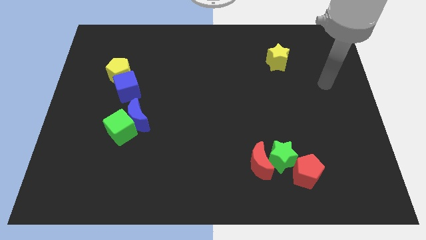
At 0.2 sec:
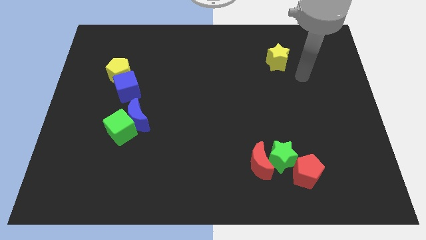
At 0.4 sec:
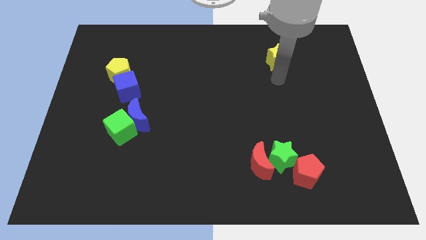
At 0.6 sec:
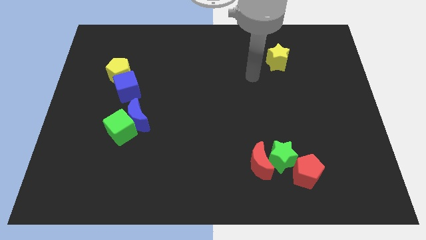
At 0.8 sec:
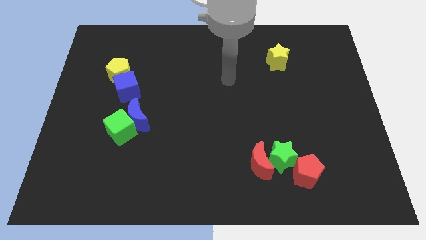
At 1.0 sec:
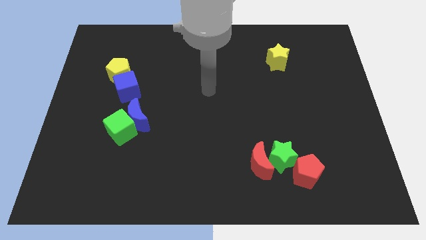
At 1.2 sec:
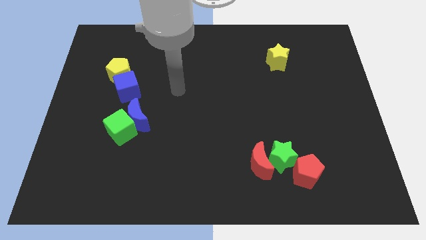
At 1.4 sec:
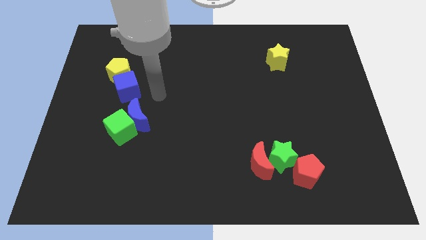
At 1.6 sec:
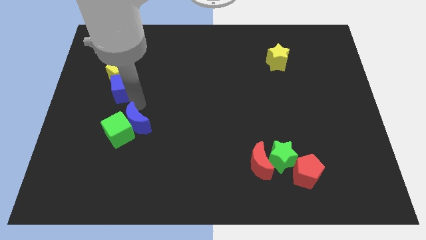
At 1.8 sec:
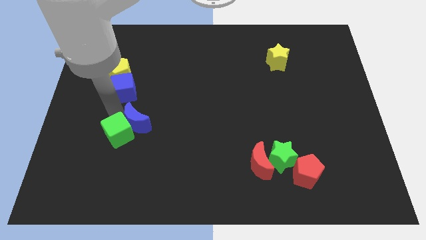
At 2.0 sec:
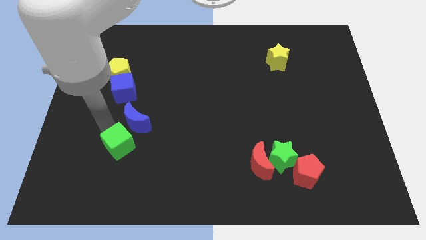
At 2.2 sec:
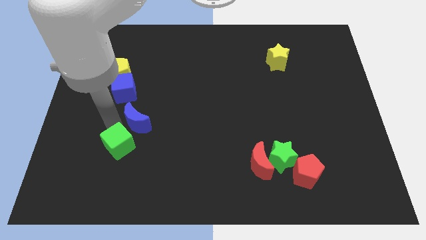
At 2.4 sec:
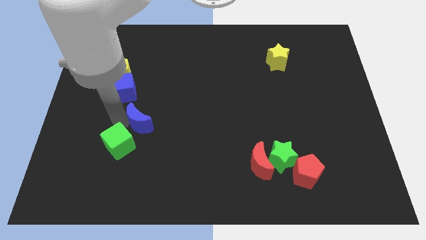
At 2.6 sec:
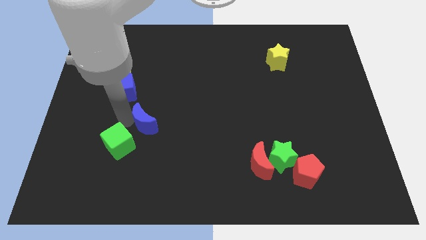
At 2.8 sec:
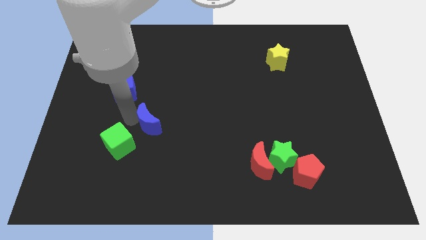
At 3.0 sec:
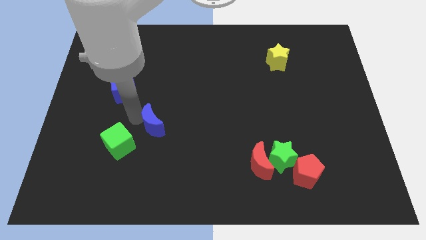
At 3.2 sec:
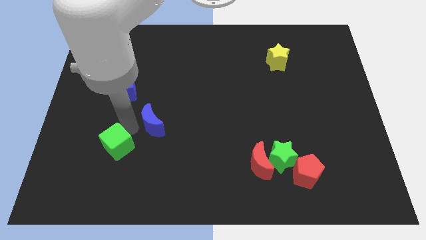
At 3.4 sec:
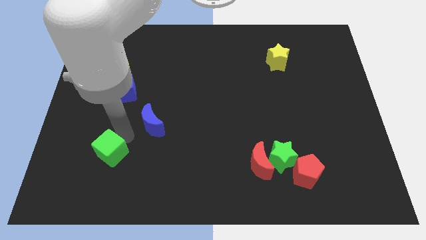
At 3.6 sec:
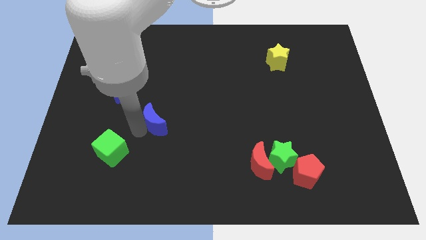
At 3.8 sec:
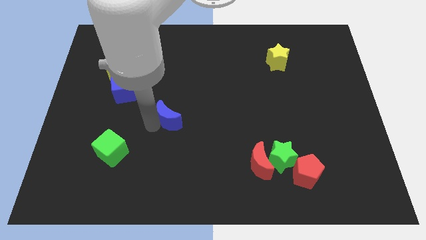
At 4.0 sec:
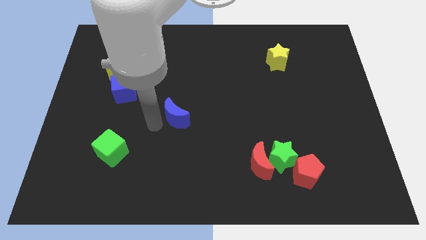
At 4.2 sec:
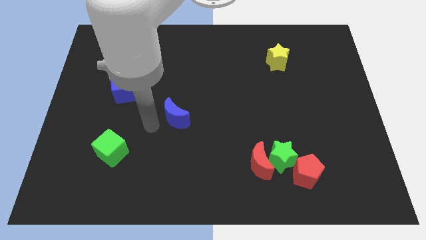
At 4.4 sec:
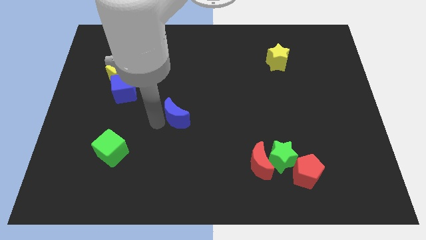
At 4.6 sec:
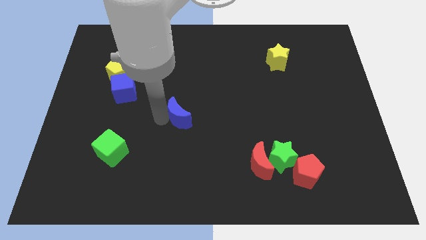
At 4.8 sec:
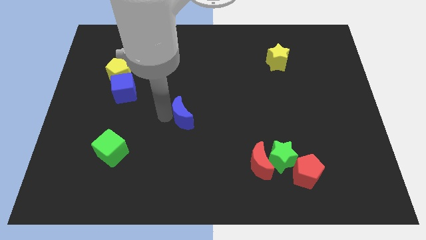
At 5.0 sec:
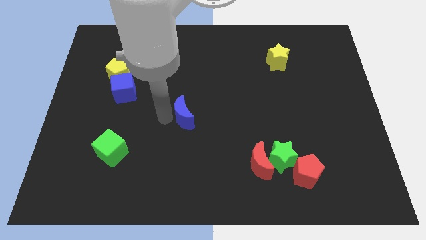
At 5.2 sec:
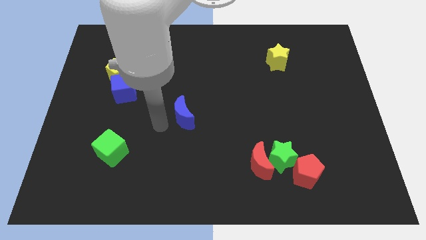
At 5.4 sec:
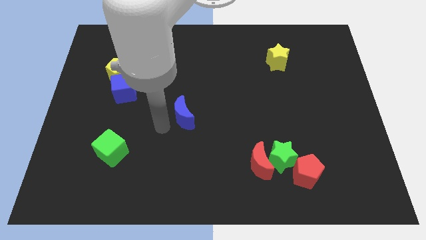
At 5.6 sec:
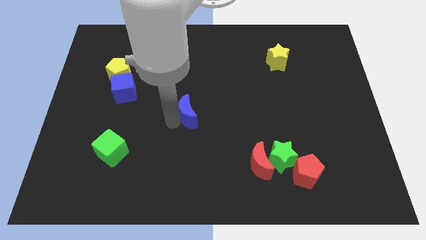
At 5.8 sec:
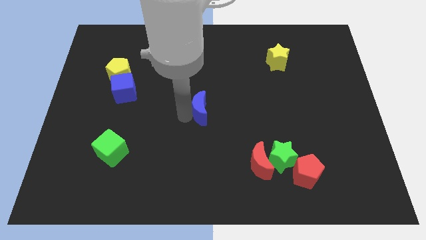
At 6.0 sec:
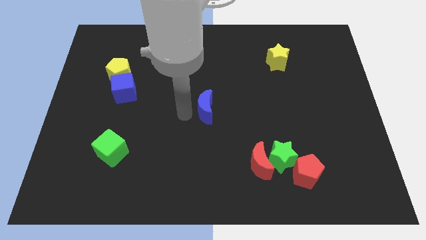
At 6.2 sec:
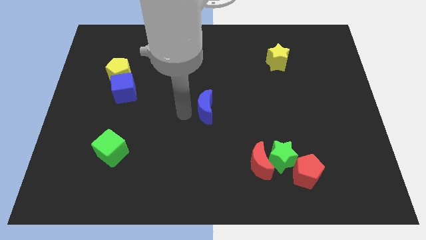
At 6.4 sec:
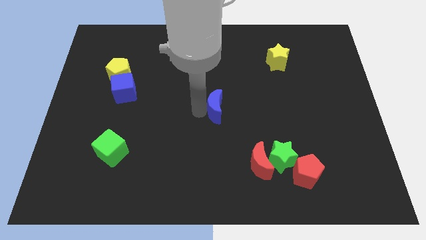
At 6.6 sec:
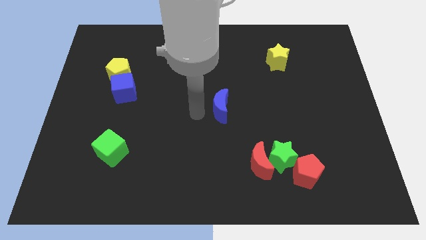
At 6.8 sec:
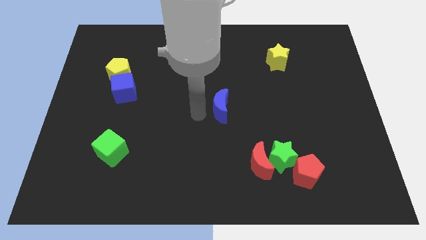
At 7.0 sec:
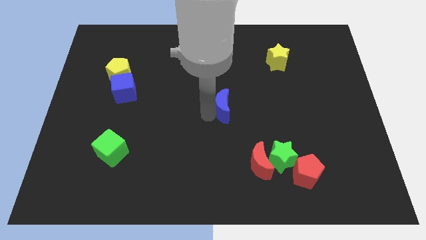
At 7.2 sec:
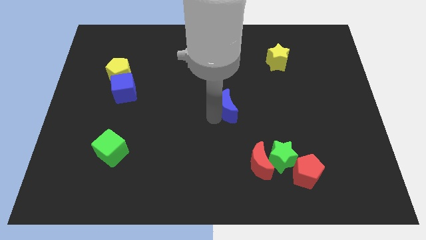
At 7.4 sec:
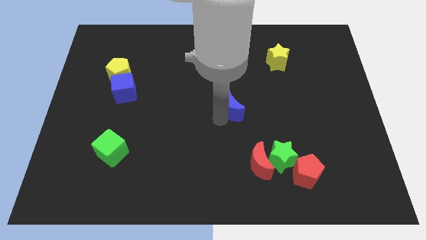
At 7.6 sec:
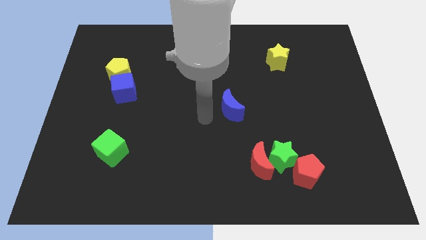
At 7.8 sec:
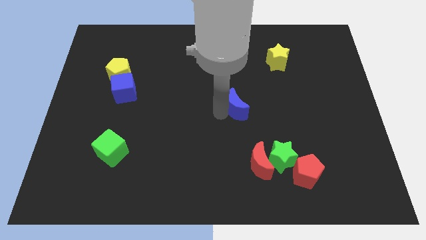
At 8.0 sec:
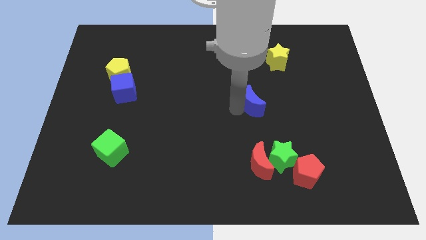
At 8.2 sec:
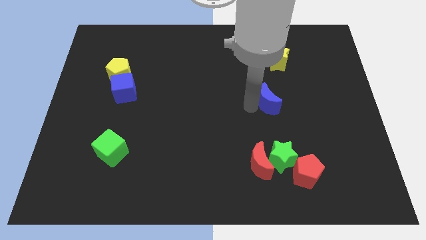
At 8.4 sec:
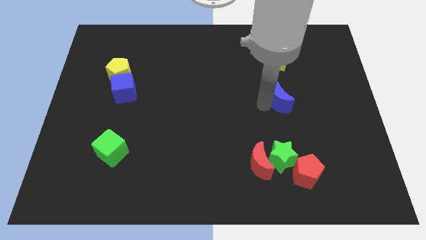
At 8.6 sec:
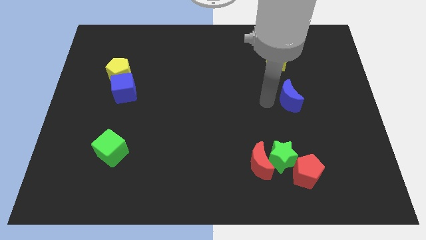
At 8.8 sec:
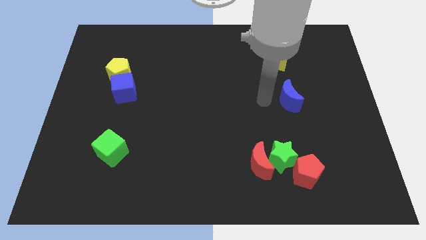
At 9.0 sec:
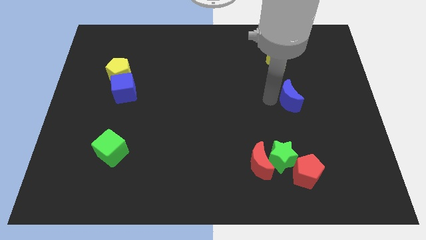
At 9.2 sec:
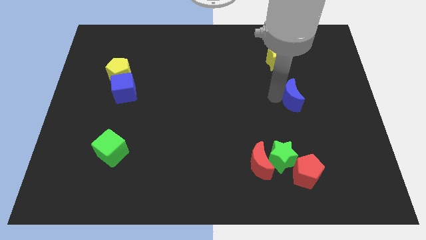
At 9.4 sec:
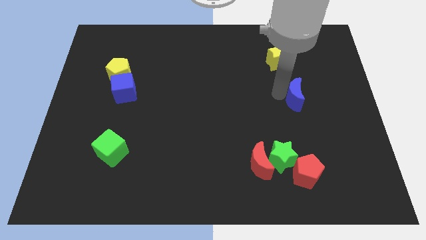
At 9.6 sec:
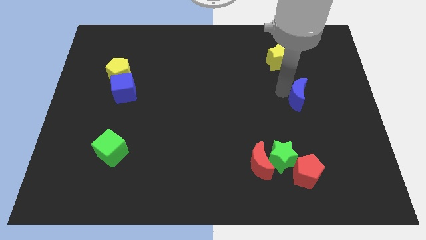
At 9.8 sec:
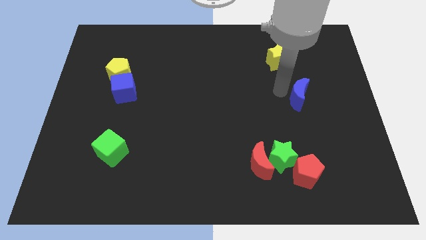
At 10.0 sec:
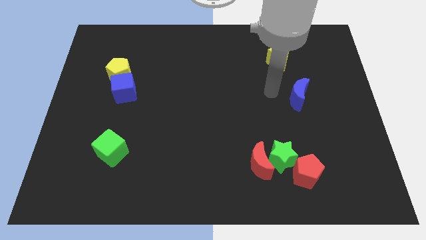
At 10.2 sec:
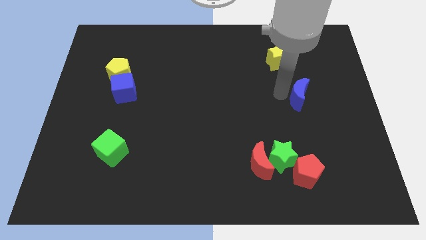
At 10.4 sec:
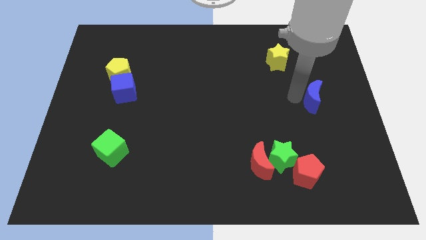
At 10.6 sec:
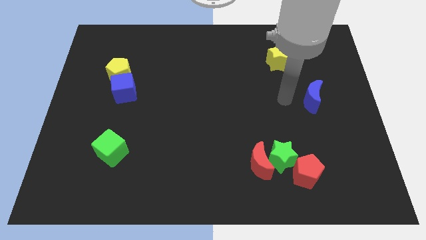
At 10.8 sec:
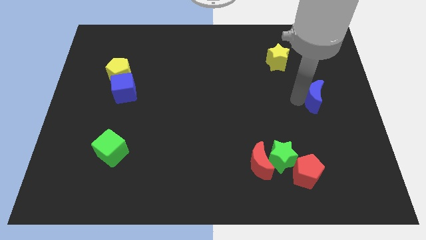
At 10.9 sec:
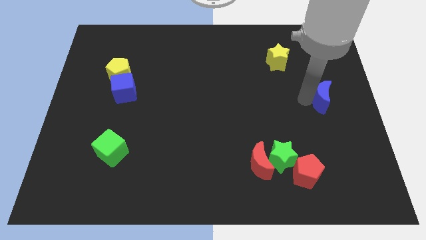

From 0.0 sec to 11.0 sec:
push the blue moon to the center right

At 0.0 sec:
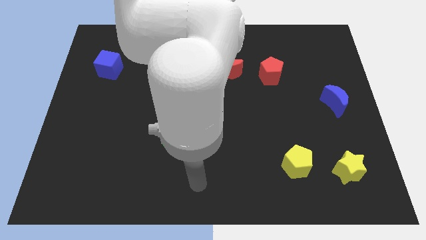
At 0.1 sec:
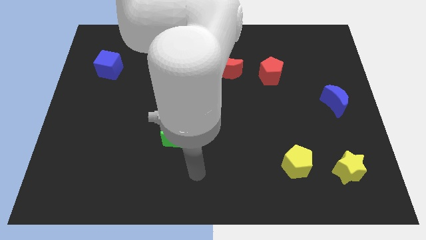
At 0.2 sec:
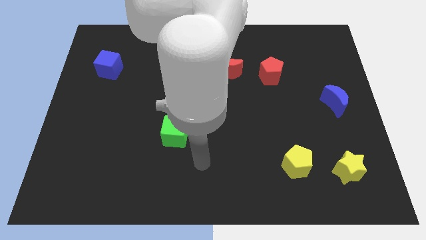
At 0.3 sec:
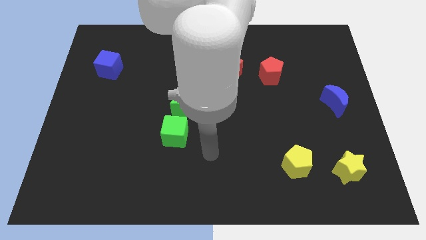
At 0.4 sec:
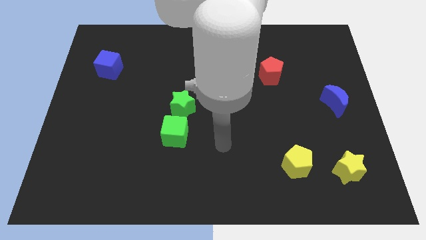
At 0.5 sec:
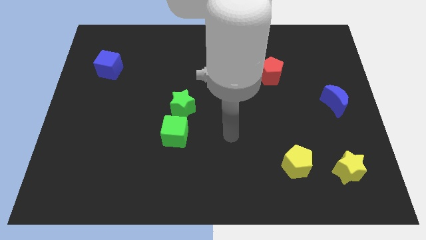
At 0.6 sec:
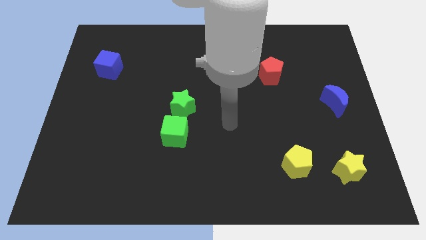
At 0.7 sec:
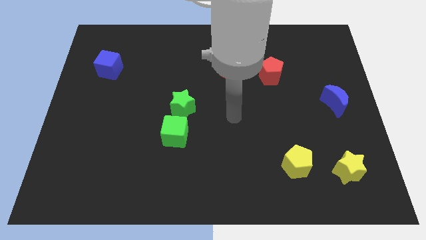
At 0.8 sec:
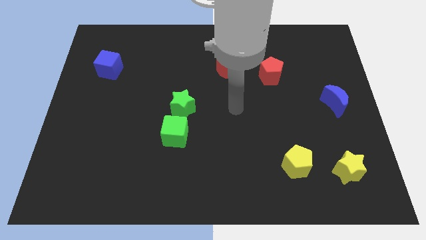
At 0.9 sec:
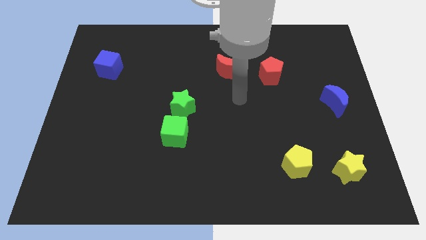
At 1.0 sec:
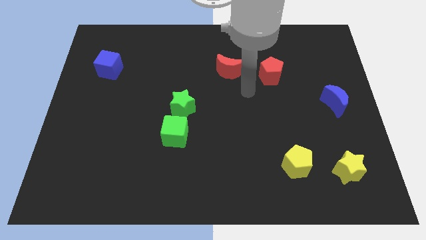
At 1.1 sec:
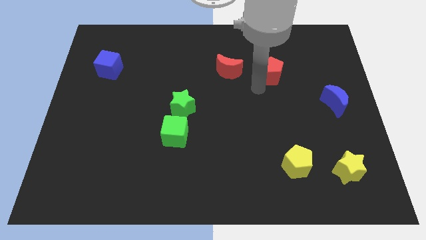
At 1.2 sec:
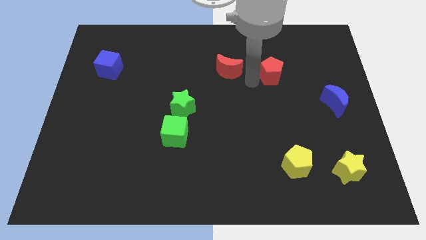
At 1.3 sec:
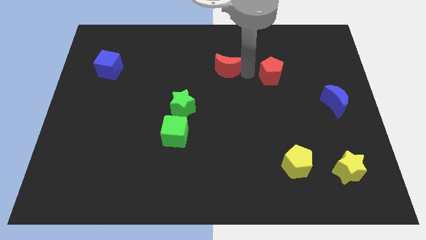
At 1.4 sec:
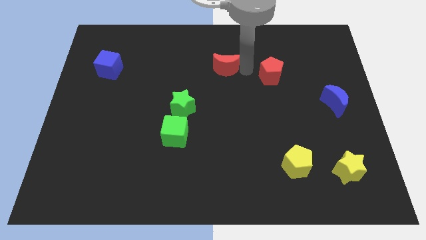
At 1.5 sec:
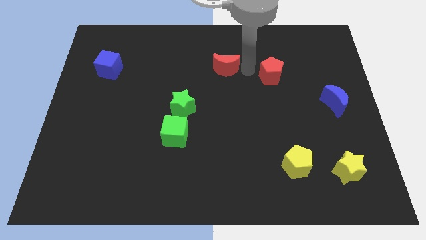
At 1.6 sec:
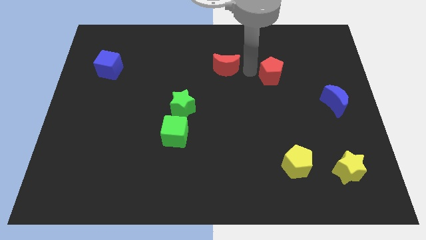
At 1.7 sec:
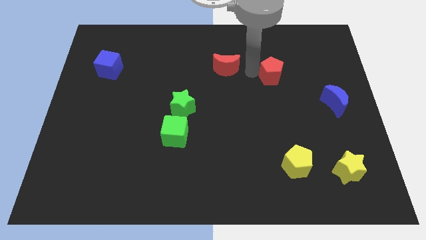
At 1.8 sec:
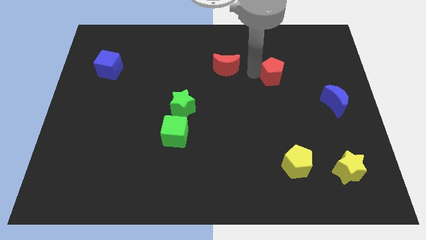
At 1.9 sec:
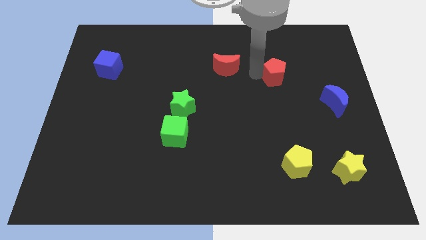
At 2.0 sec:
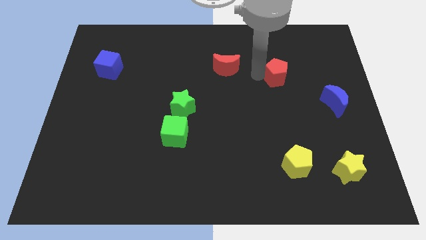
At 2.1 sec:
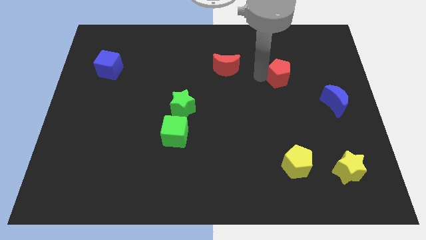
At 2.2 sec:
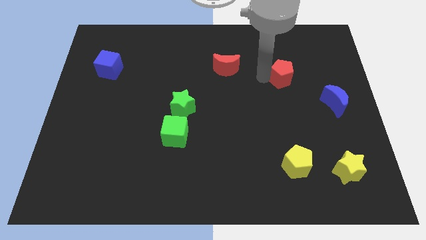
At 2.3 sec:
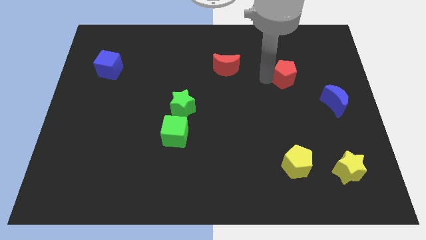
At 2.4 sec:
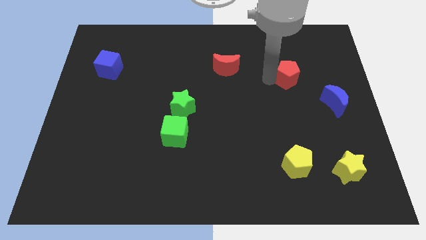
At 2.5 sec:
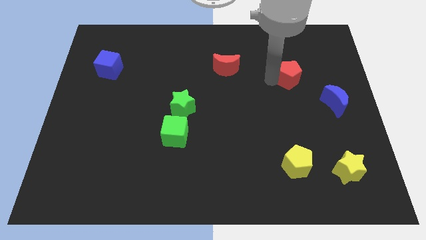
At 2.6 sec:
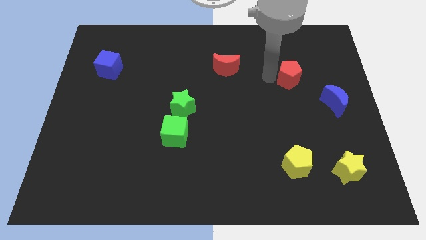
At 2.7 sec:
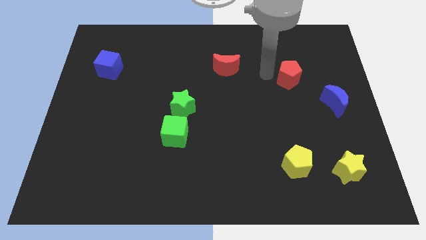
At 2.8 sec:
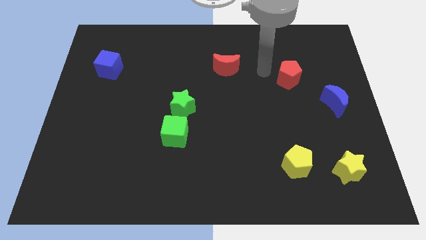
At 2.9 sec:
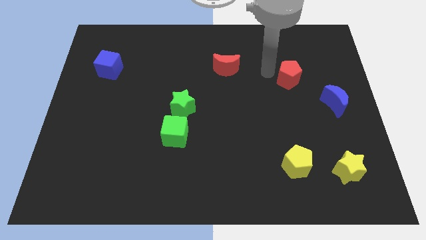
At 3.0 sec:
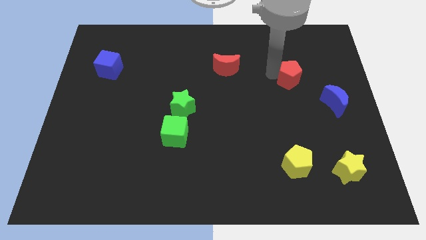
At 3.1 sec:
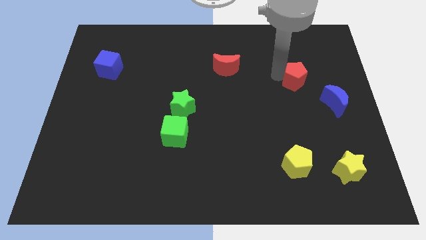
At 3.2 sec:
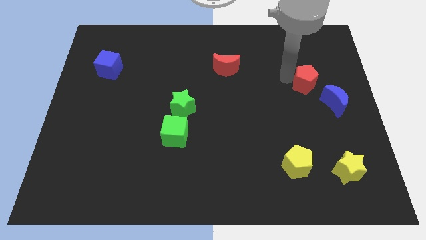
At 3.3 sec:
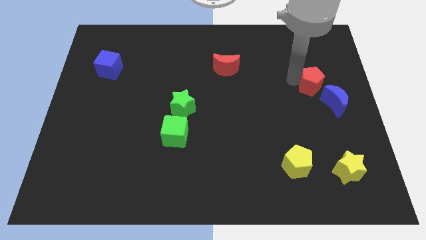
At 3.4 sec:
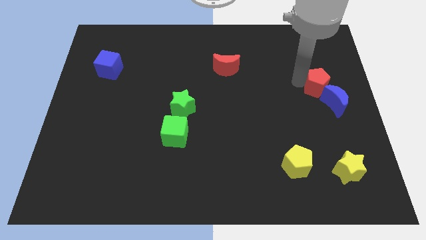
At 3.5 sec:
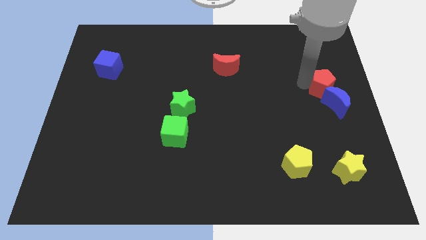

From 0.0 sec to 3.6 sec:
slide the red pentagon to the center right
